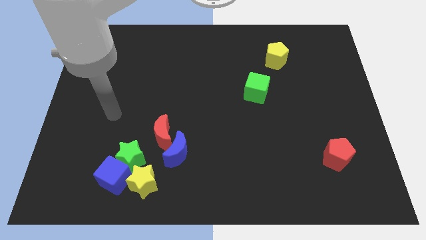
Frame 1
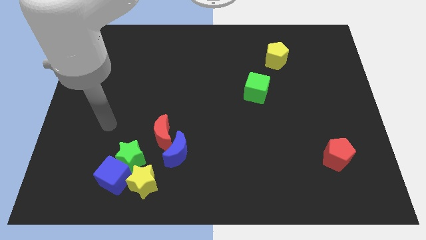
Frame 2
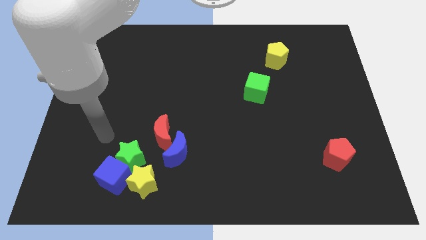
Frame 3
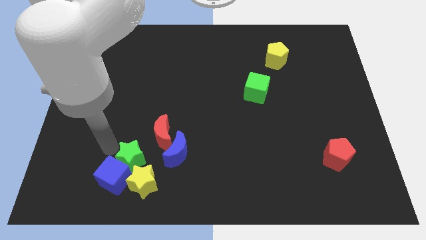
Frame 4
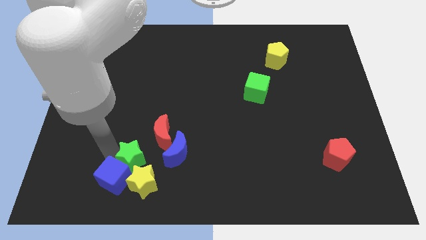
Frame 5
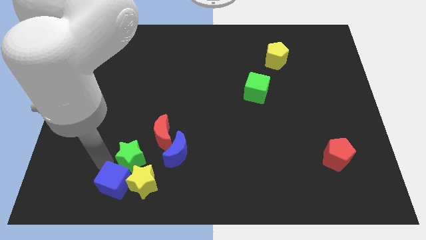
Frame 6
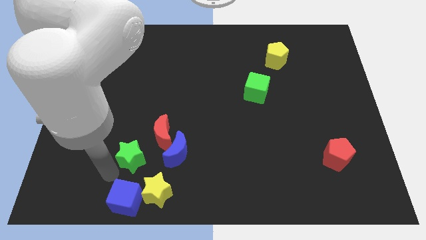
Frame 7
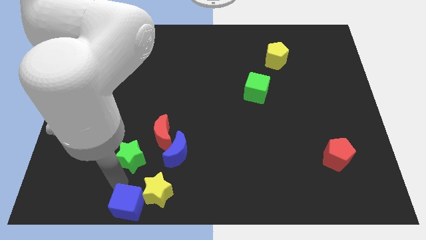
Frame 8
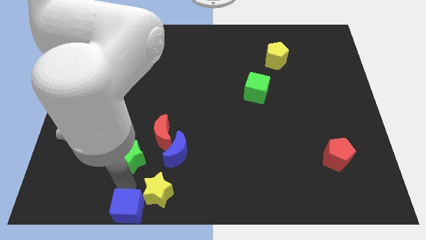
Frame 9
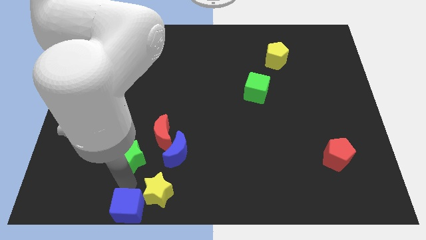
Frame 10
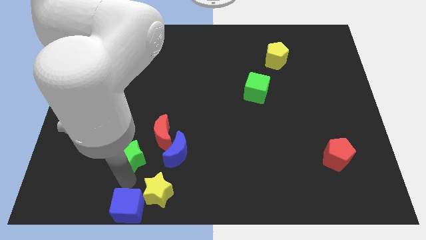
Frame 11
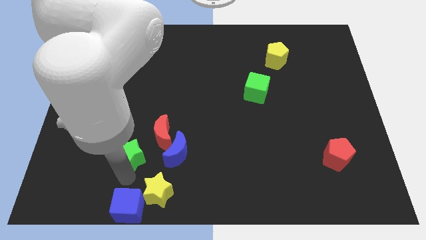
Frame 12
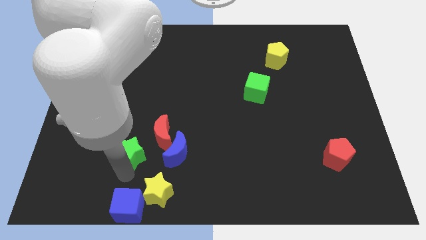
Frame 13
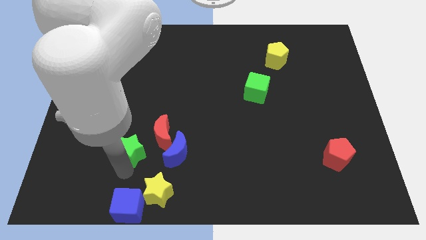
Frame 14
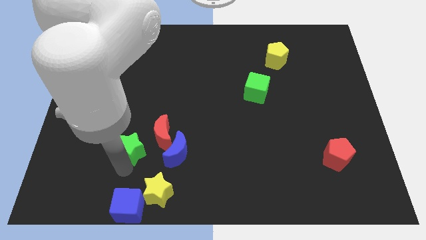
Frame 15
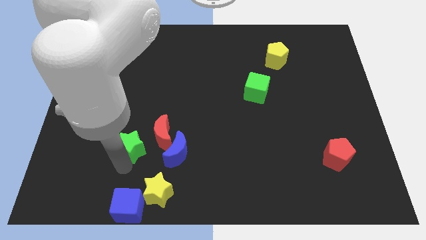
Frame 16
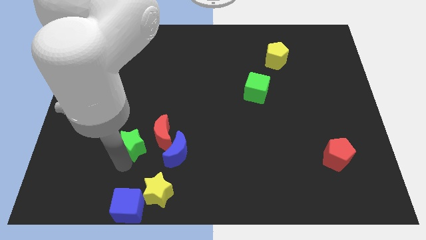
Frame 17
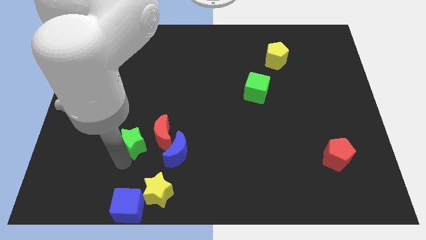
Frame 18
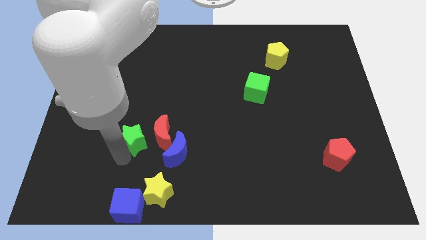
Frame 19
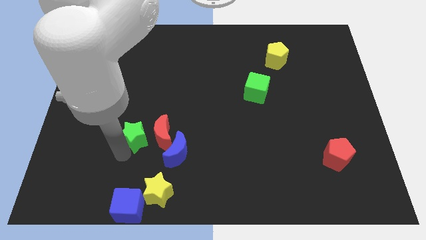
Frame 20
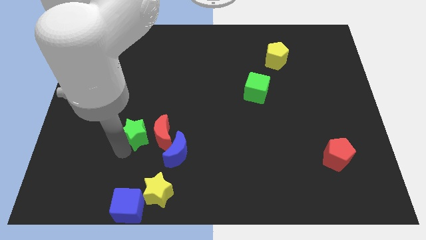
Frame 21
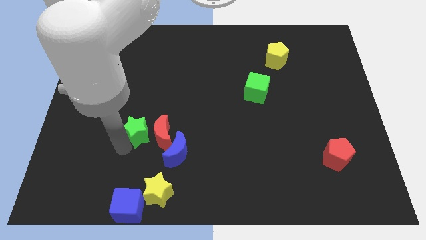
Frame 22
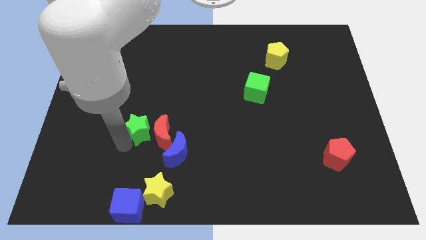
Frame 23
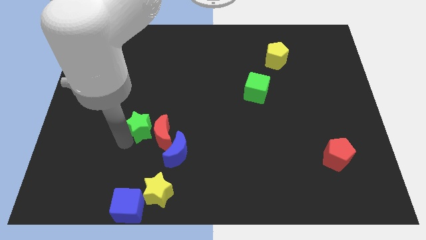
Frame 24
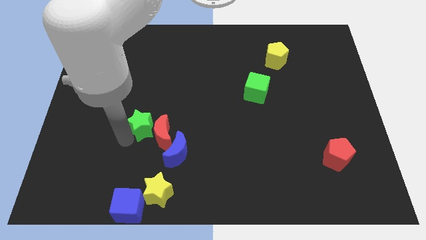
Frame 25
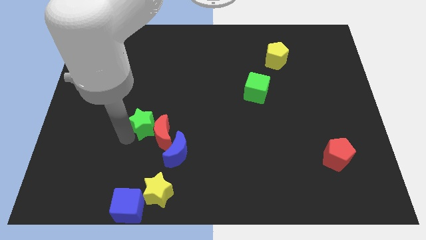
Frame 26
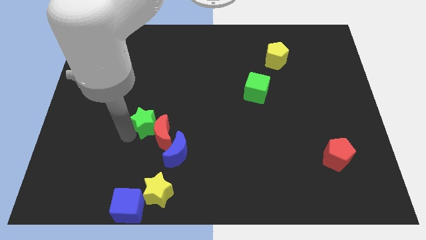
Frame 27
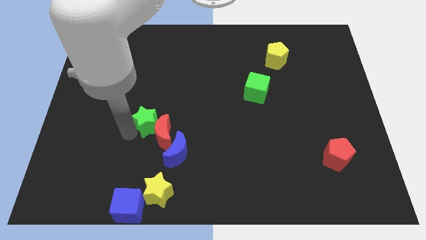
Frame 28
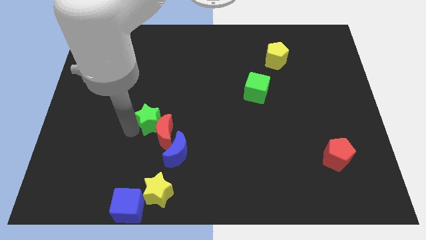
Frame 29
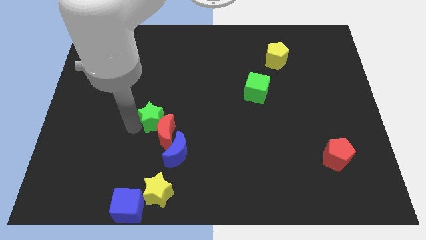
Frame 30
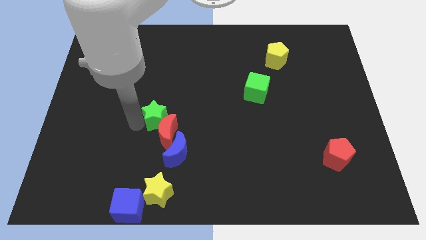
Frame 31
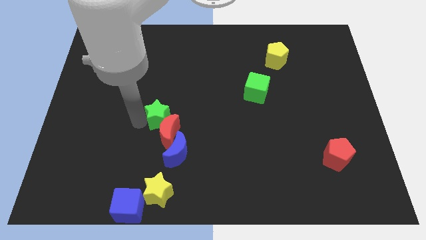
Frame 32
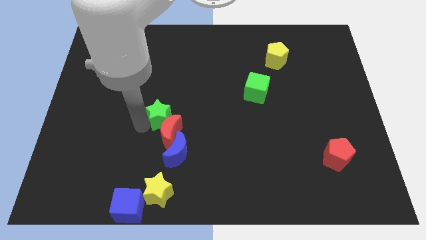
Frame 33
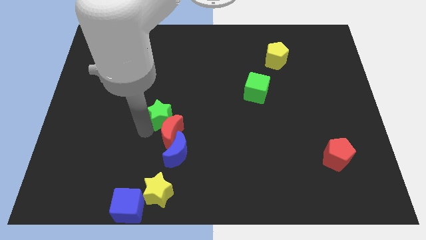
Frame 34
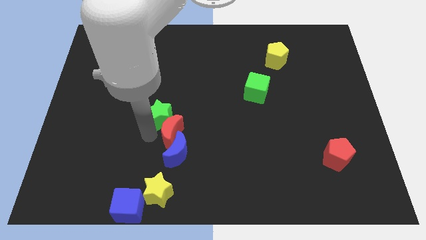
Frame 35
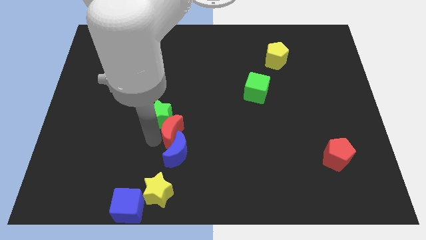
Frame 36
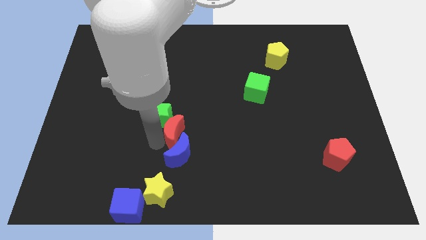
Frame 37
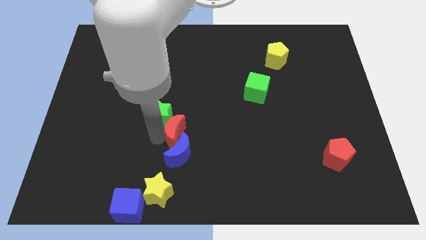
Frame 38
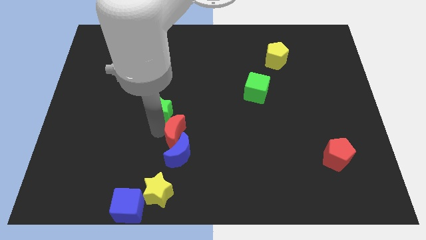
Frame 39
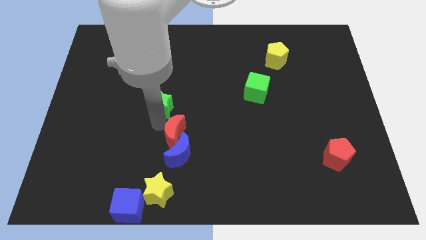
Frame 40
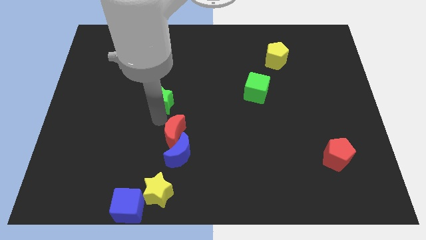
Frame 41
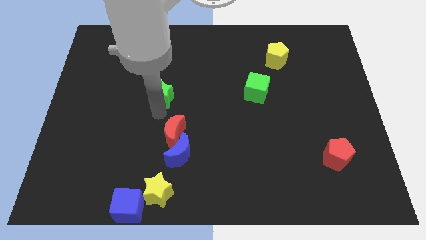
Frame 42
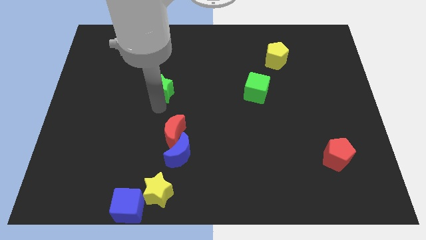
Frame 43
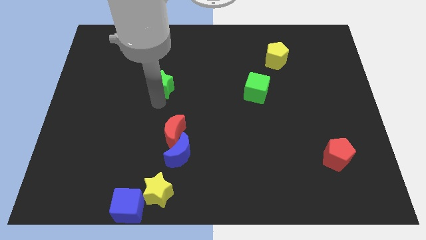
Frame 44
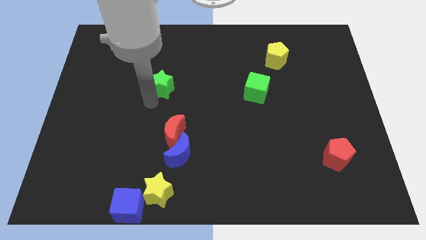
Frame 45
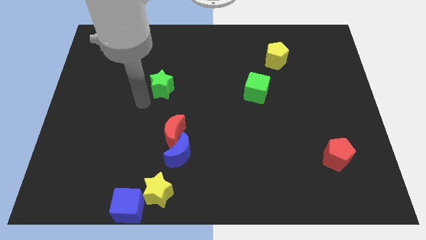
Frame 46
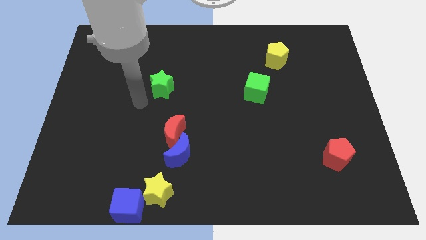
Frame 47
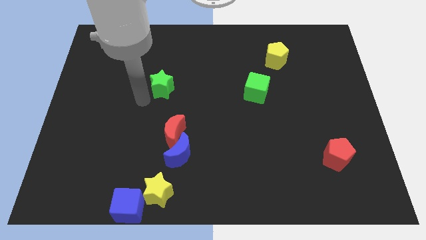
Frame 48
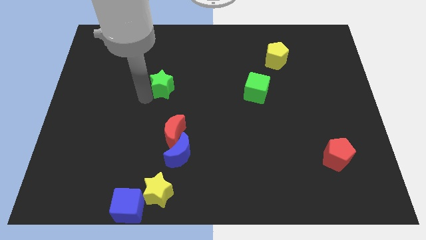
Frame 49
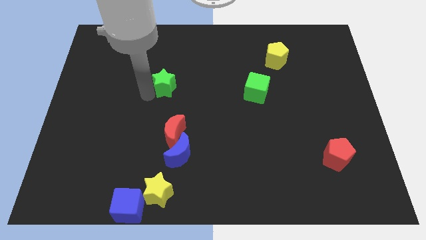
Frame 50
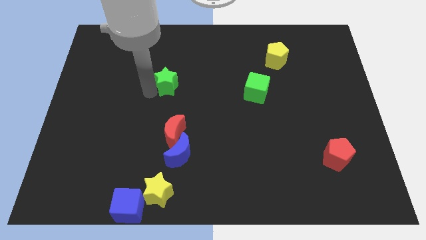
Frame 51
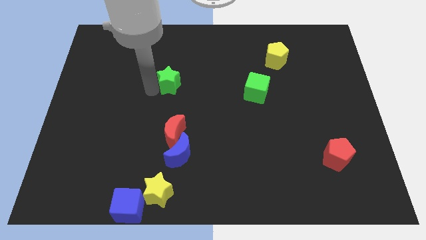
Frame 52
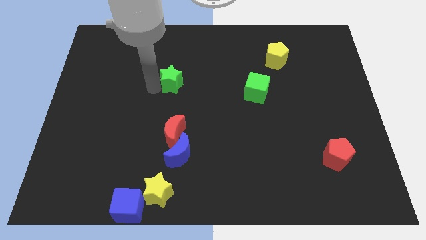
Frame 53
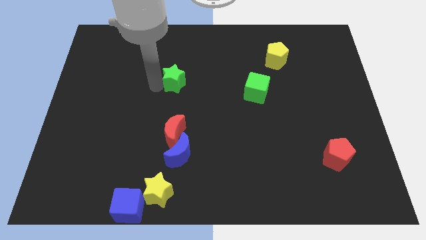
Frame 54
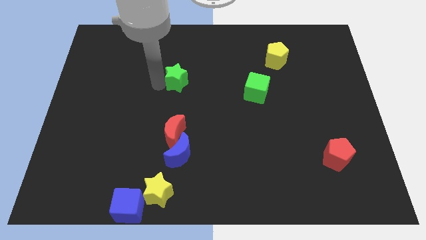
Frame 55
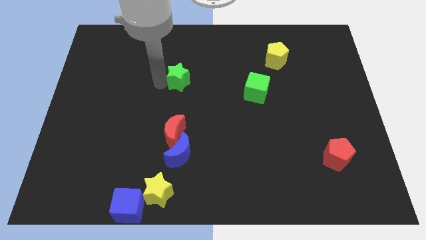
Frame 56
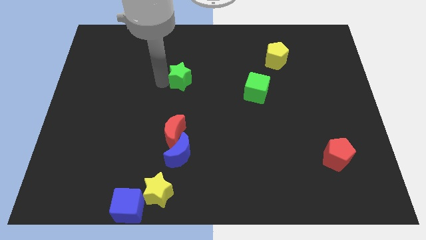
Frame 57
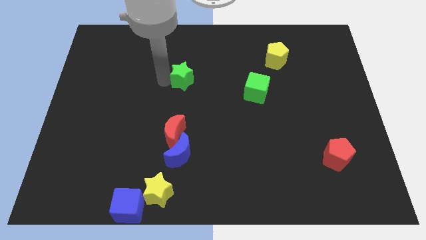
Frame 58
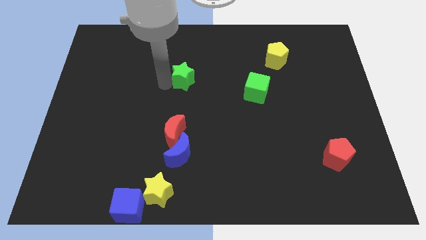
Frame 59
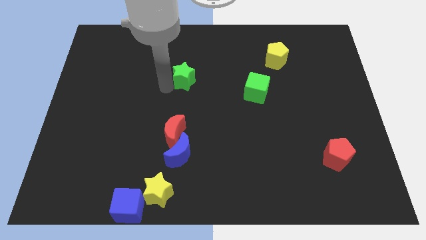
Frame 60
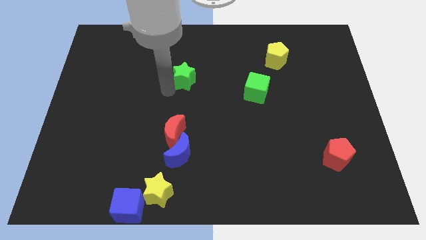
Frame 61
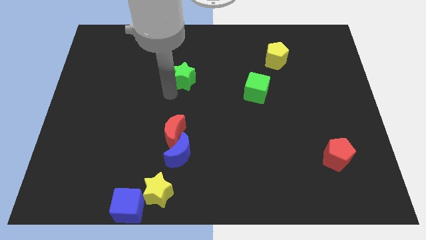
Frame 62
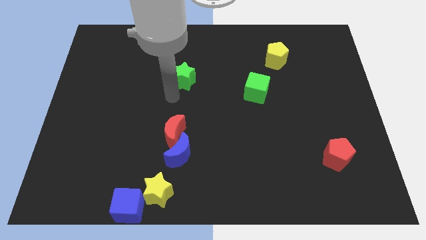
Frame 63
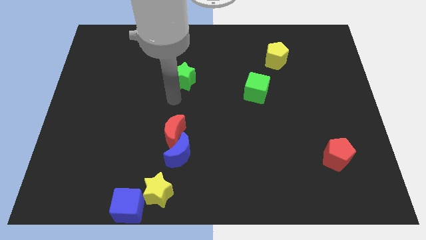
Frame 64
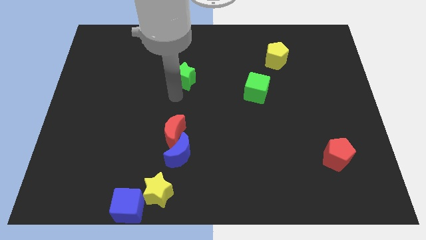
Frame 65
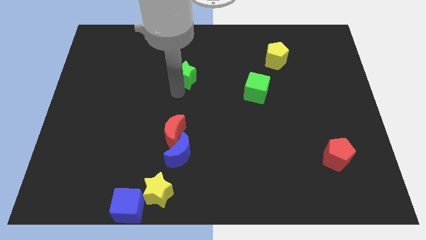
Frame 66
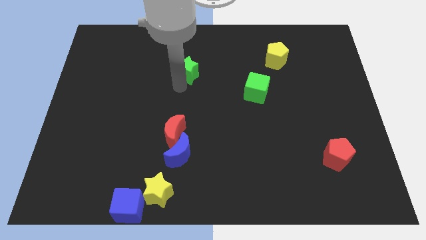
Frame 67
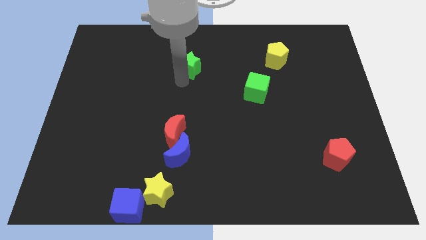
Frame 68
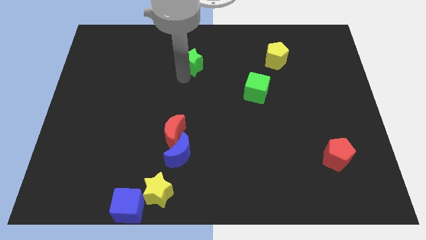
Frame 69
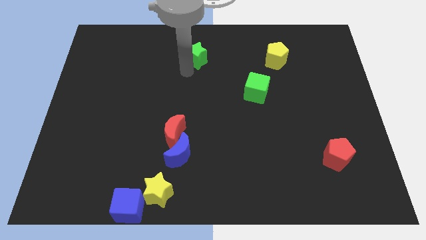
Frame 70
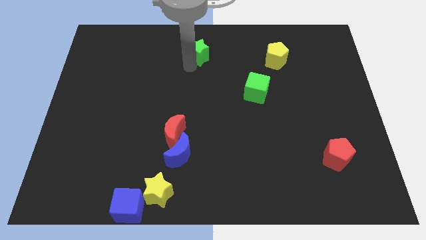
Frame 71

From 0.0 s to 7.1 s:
push the green star to the top
